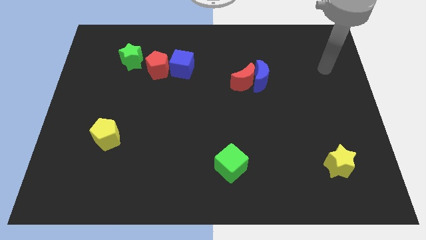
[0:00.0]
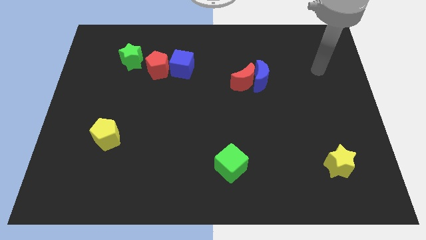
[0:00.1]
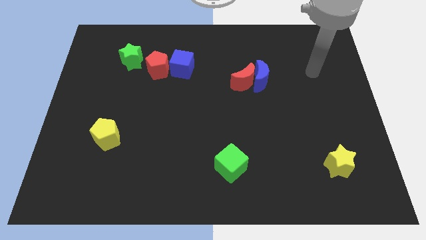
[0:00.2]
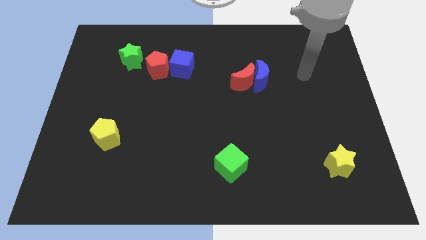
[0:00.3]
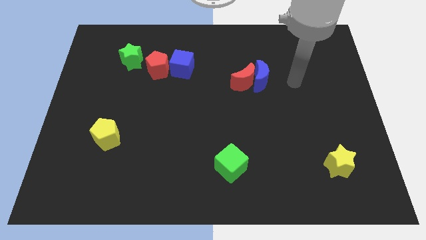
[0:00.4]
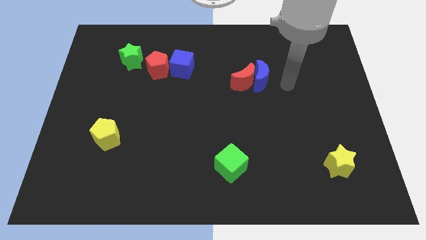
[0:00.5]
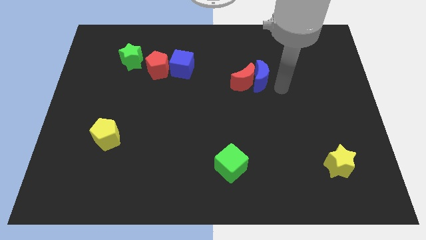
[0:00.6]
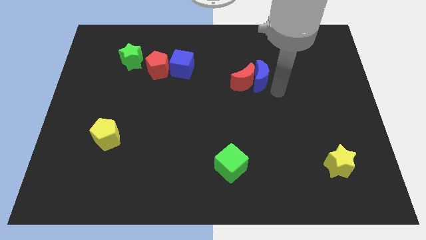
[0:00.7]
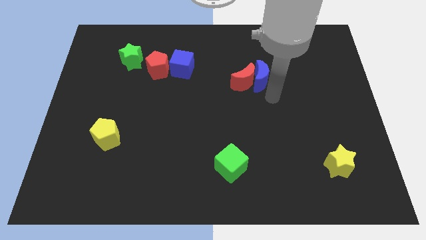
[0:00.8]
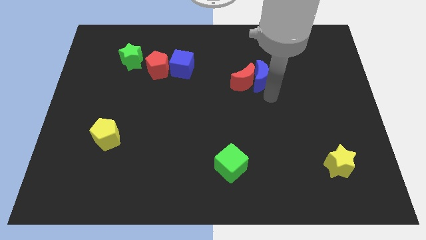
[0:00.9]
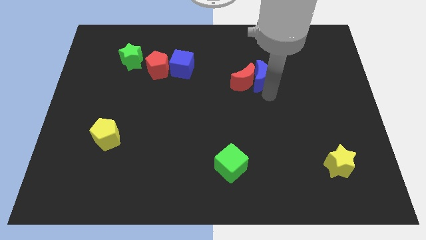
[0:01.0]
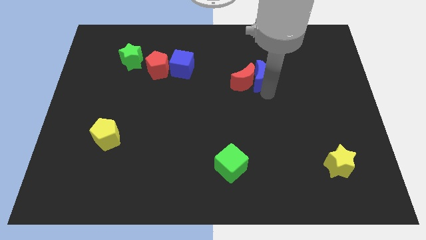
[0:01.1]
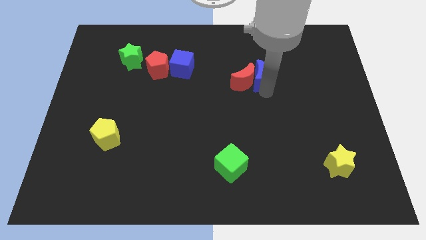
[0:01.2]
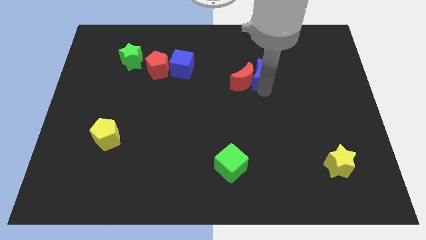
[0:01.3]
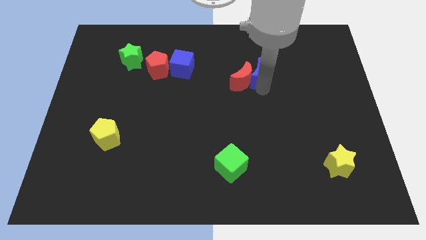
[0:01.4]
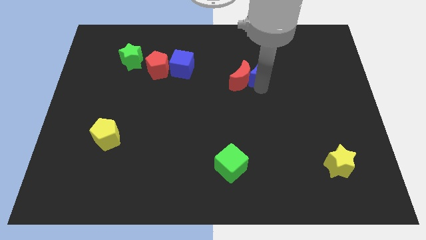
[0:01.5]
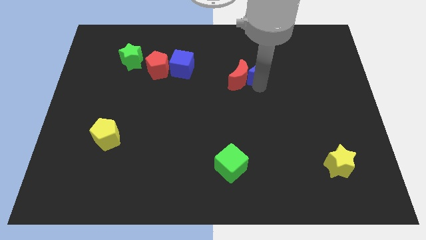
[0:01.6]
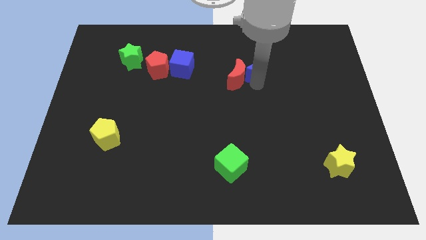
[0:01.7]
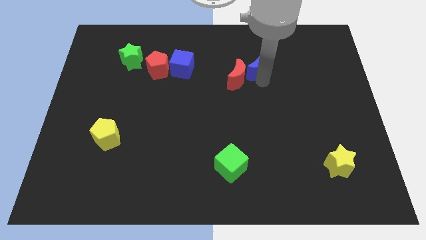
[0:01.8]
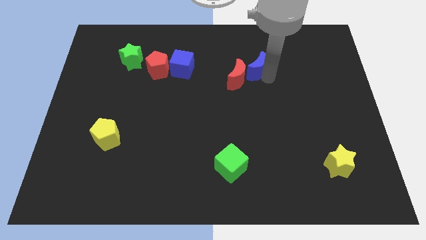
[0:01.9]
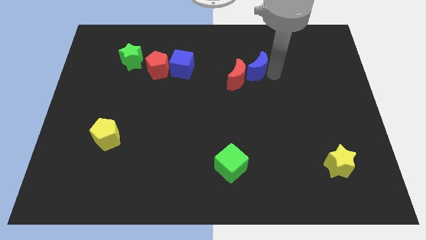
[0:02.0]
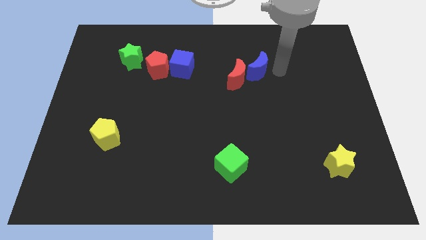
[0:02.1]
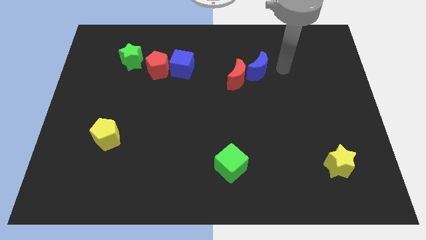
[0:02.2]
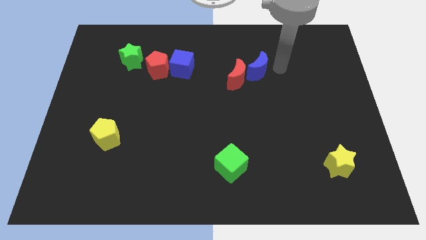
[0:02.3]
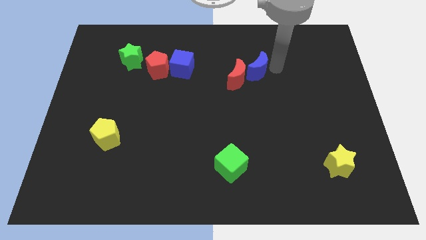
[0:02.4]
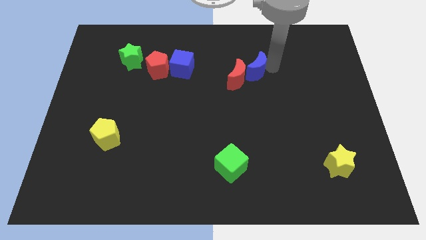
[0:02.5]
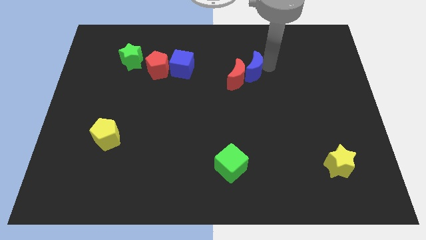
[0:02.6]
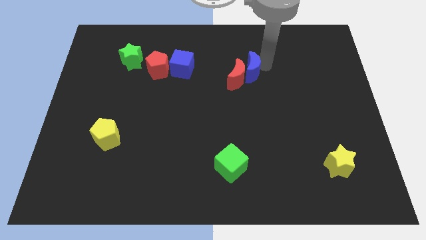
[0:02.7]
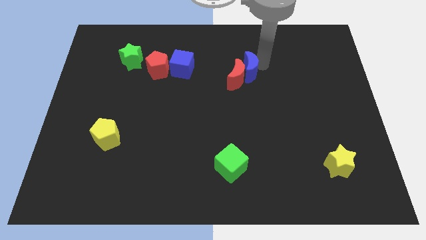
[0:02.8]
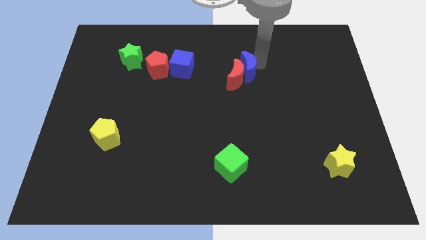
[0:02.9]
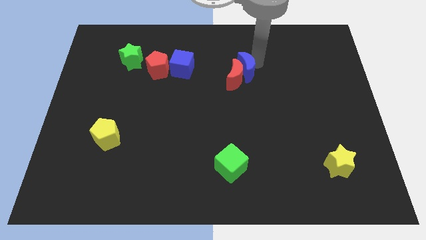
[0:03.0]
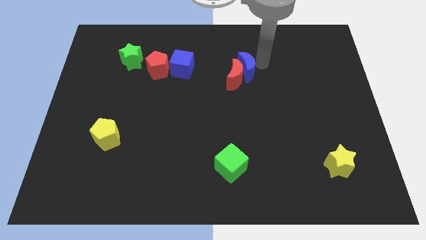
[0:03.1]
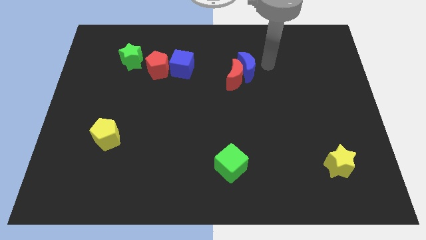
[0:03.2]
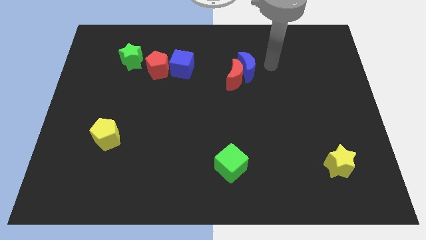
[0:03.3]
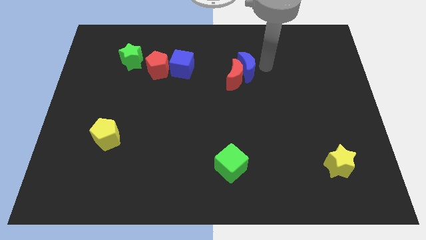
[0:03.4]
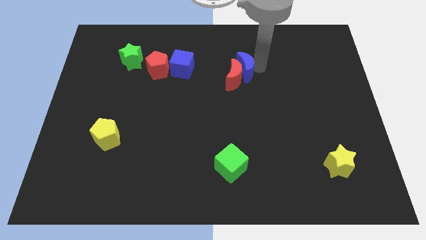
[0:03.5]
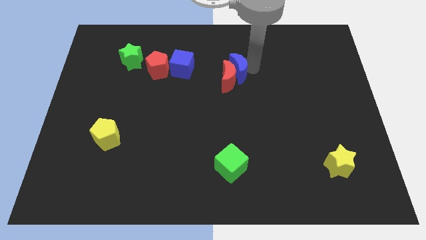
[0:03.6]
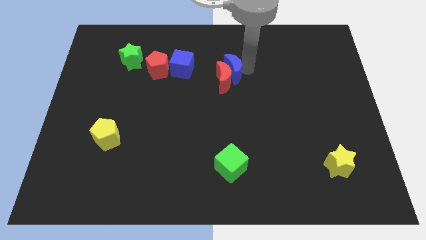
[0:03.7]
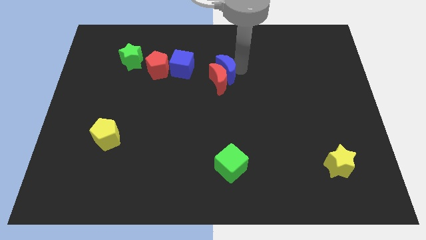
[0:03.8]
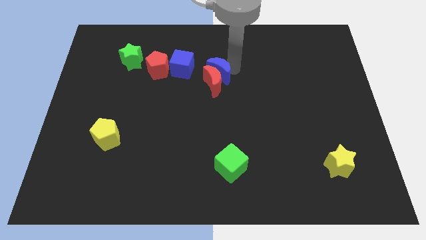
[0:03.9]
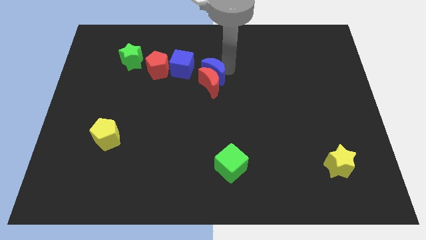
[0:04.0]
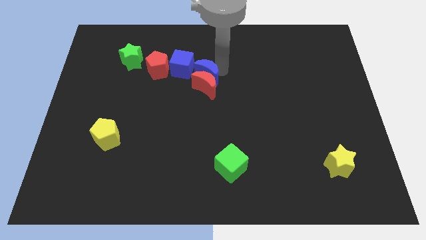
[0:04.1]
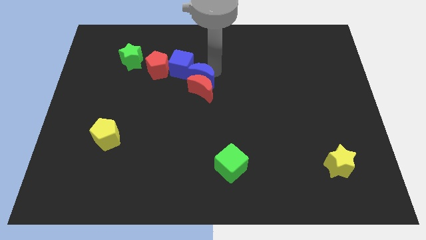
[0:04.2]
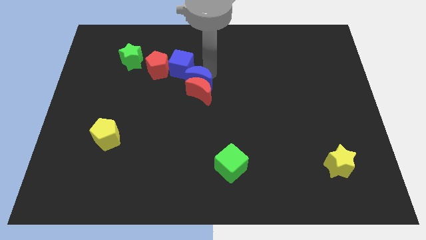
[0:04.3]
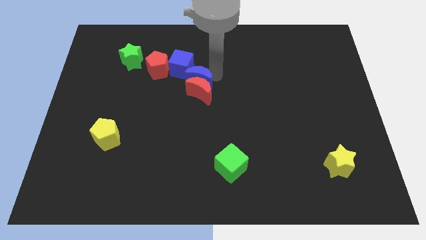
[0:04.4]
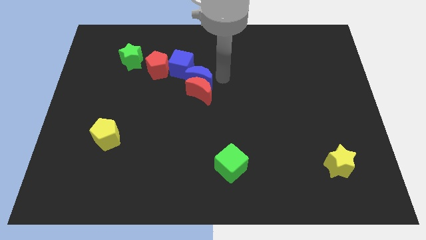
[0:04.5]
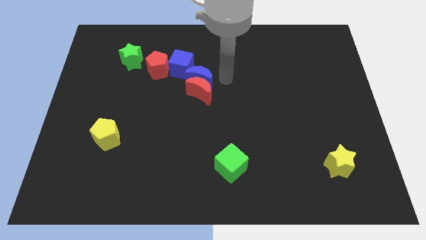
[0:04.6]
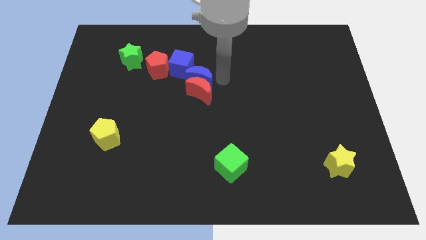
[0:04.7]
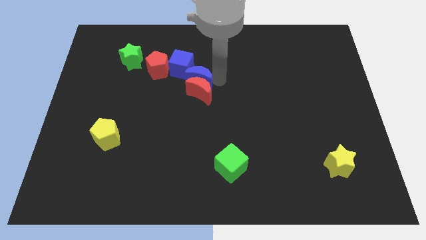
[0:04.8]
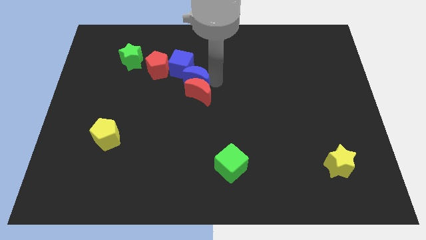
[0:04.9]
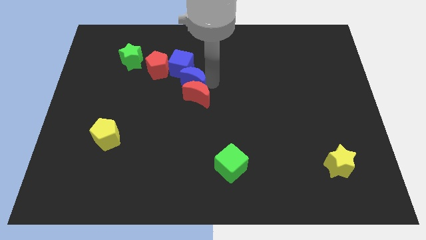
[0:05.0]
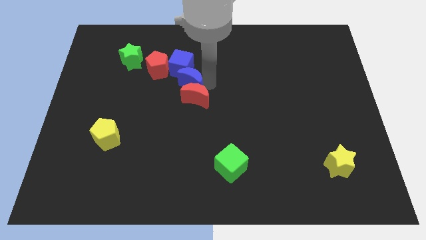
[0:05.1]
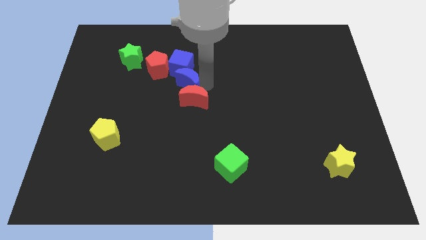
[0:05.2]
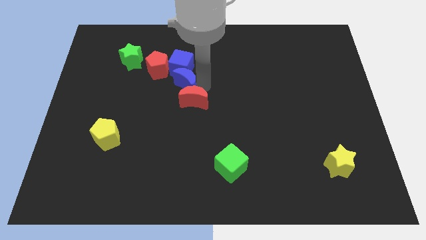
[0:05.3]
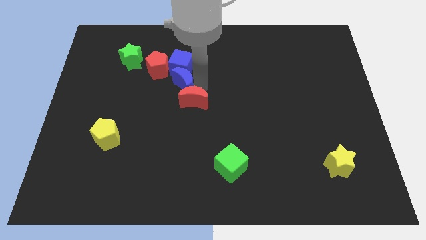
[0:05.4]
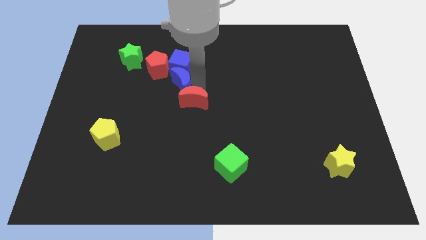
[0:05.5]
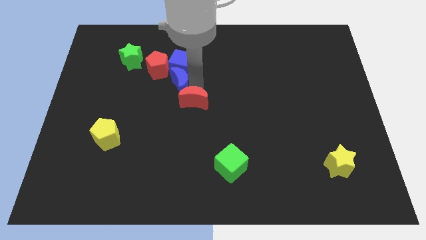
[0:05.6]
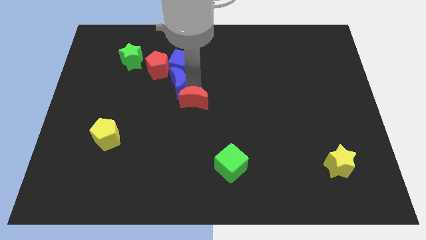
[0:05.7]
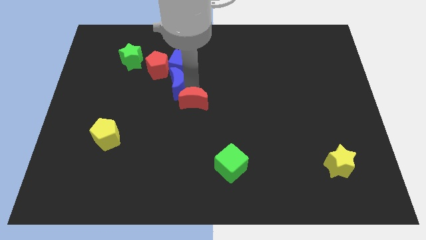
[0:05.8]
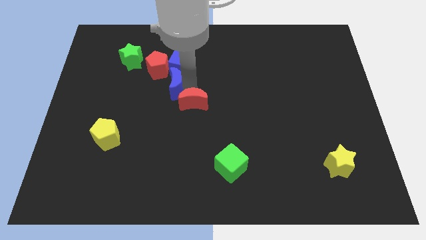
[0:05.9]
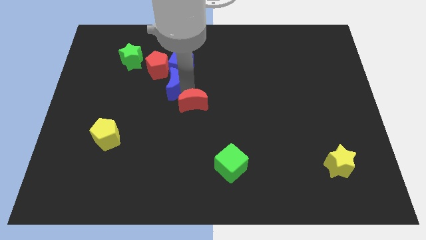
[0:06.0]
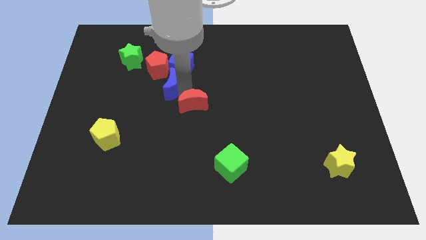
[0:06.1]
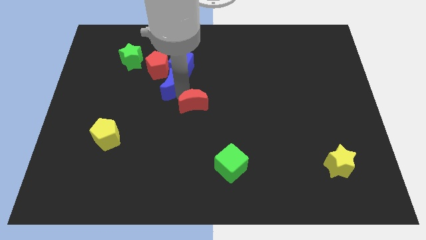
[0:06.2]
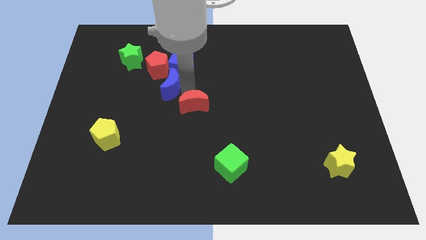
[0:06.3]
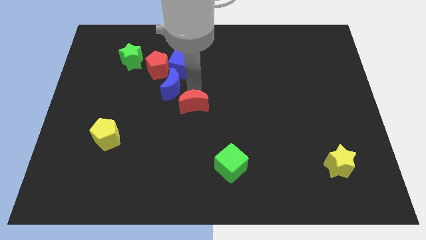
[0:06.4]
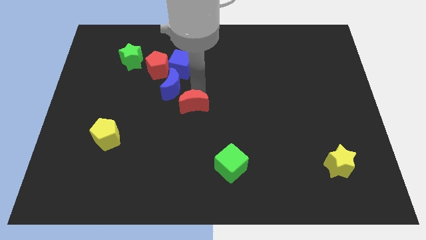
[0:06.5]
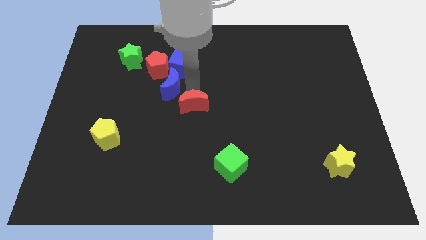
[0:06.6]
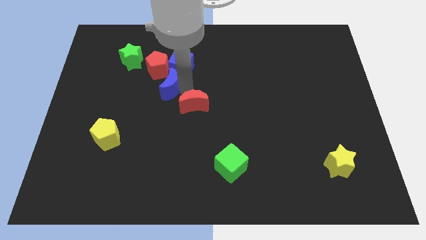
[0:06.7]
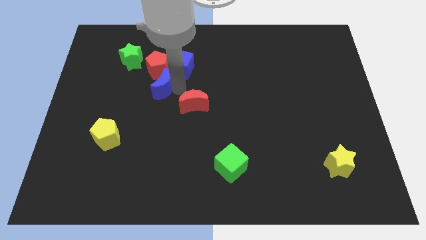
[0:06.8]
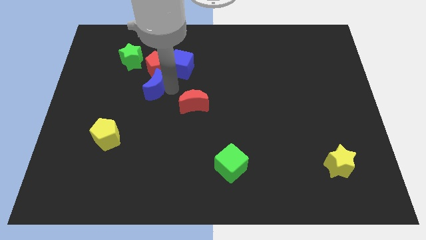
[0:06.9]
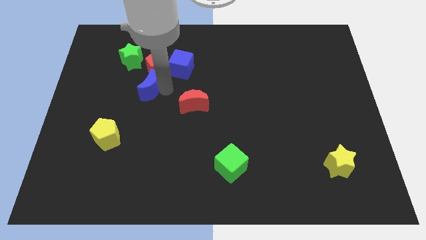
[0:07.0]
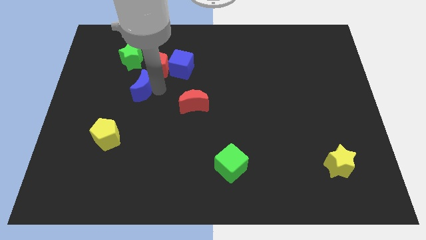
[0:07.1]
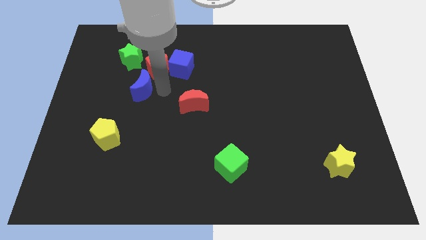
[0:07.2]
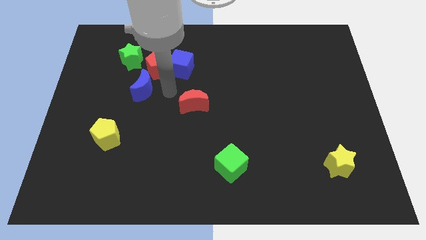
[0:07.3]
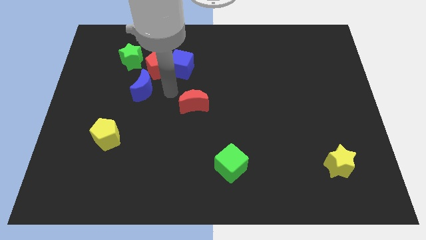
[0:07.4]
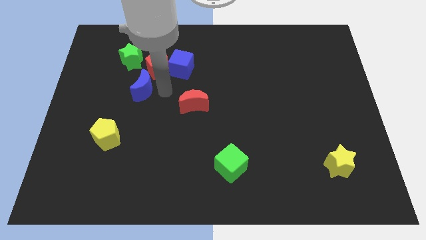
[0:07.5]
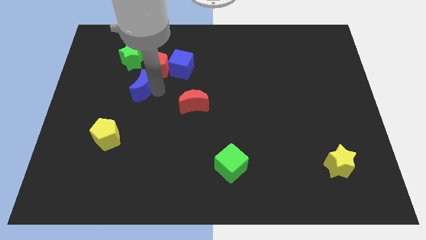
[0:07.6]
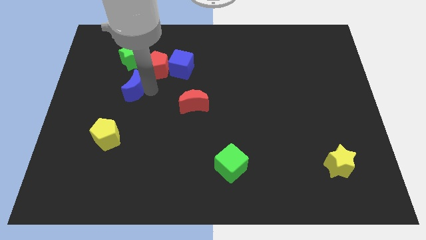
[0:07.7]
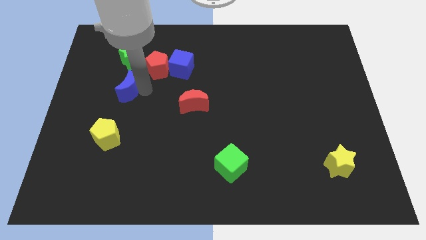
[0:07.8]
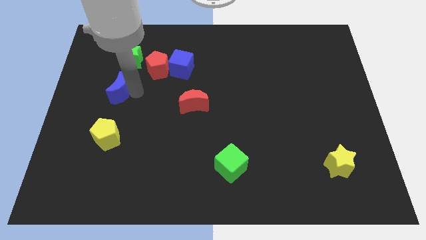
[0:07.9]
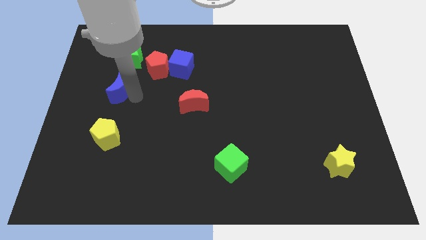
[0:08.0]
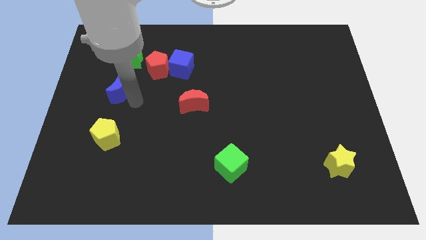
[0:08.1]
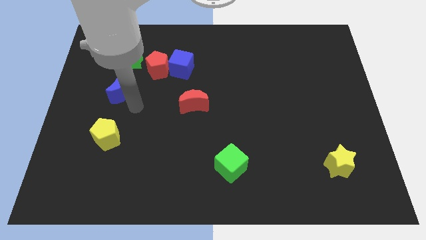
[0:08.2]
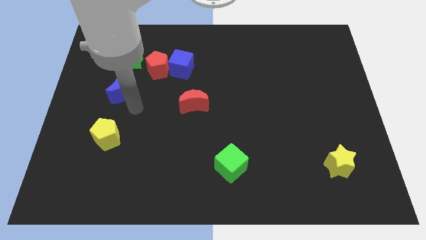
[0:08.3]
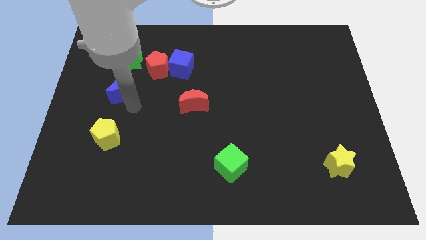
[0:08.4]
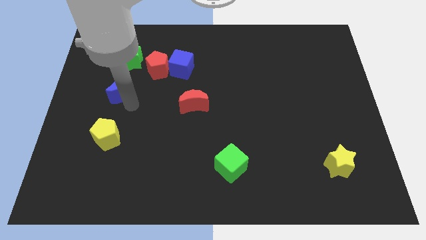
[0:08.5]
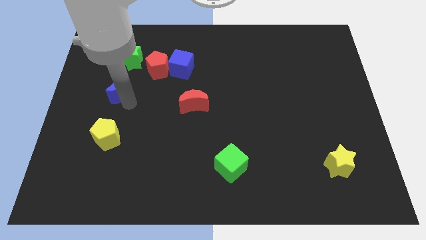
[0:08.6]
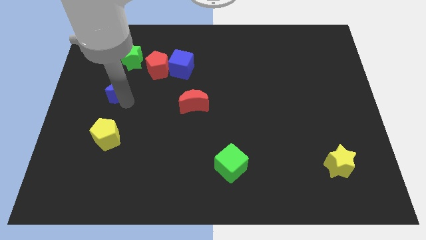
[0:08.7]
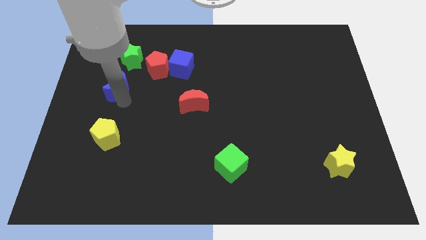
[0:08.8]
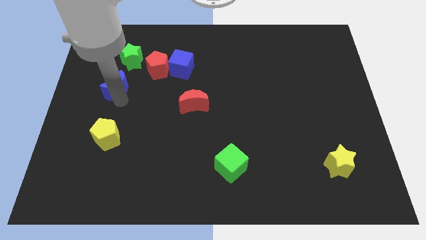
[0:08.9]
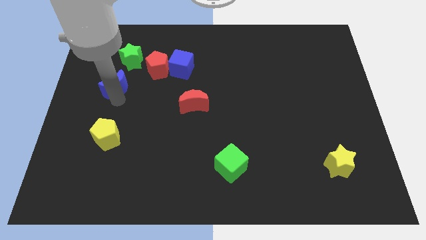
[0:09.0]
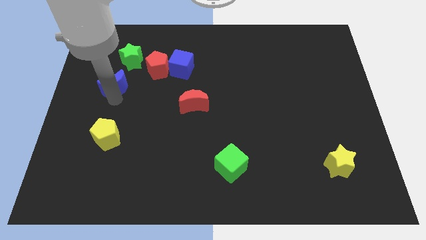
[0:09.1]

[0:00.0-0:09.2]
slide the blue moon to the bottom left of the green star
